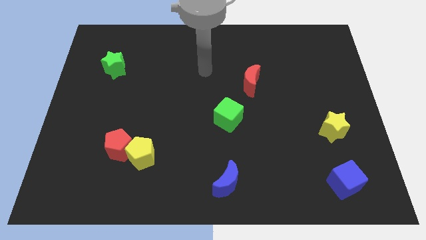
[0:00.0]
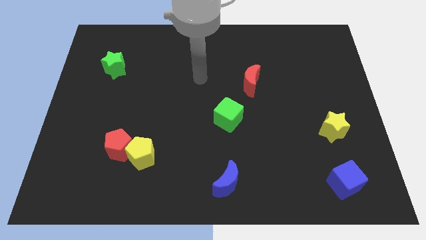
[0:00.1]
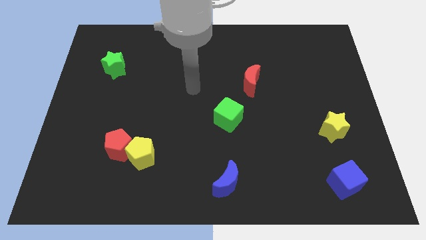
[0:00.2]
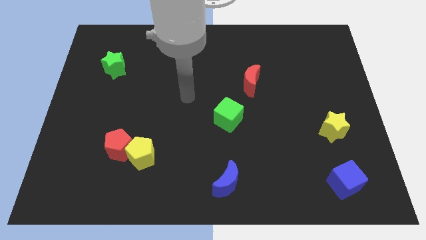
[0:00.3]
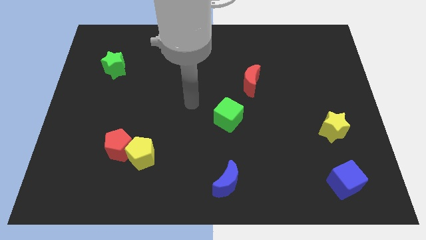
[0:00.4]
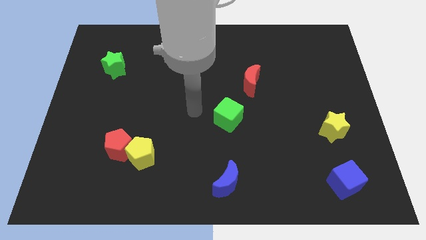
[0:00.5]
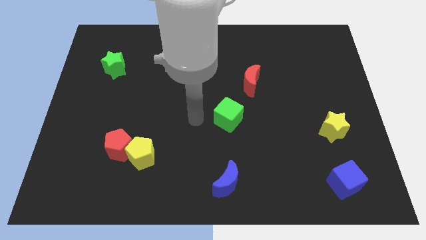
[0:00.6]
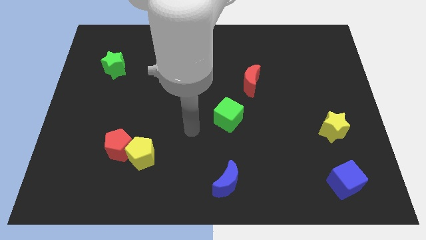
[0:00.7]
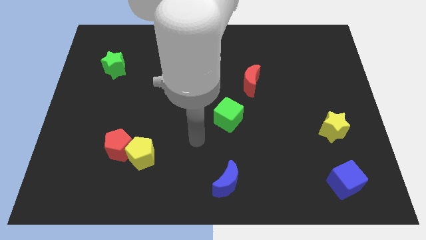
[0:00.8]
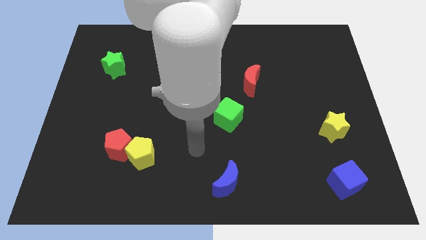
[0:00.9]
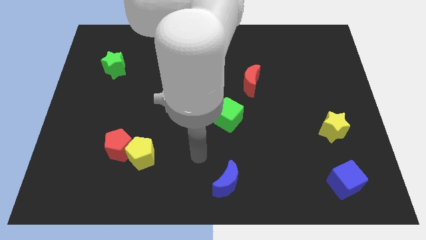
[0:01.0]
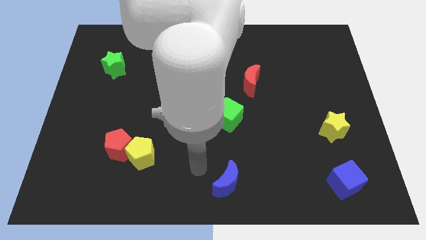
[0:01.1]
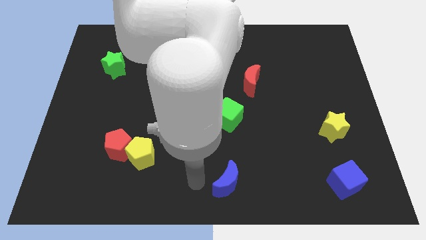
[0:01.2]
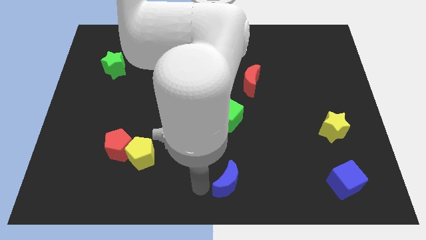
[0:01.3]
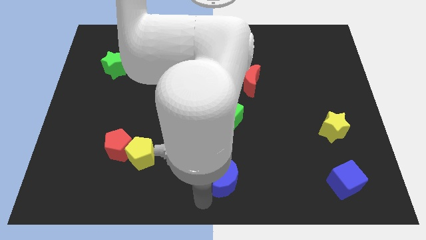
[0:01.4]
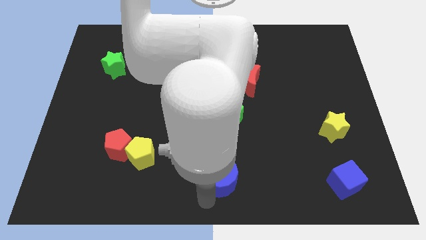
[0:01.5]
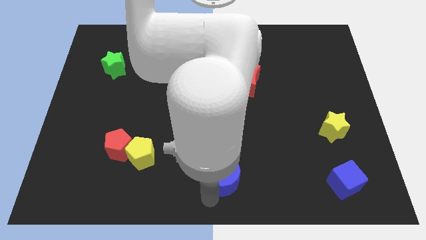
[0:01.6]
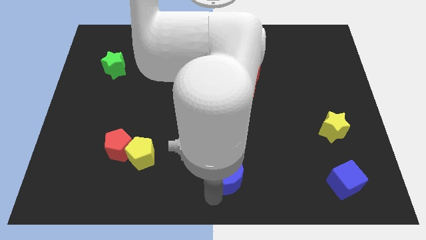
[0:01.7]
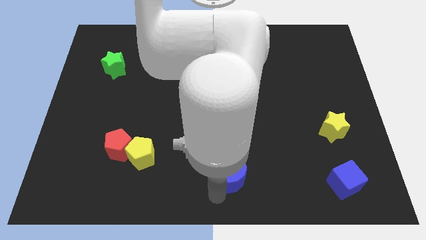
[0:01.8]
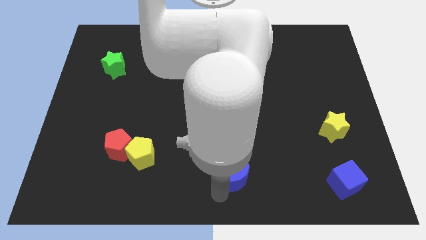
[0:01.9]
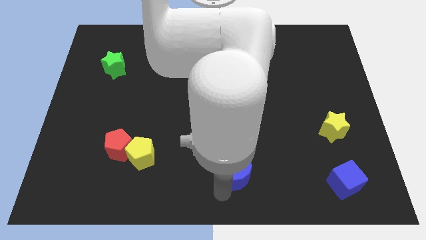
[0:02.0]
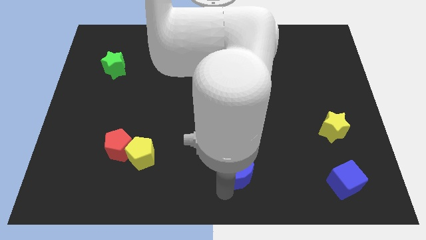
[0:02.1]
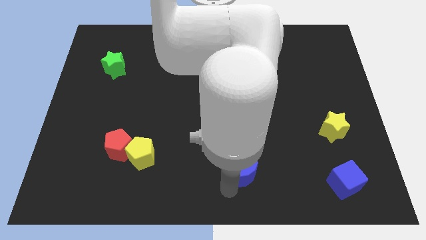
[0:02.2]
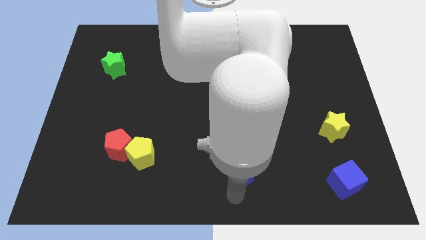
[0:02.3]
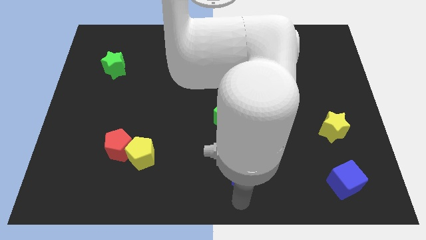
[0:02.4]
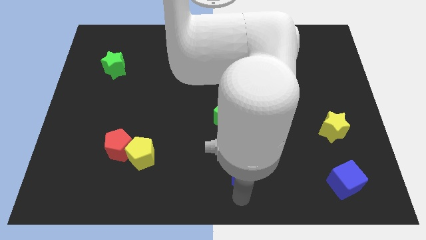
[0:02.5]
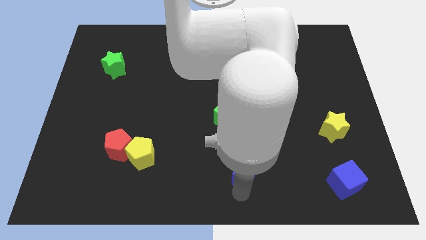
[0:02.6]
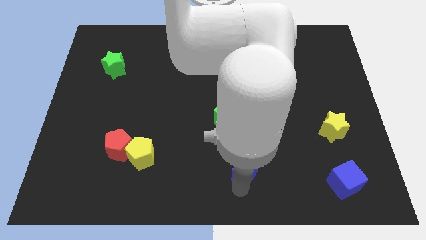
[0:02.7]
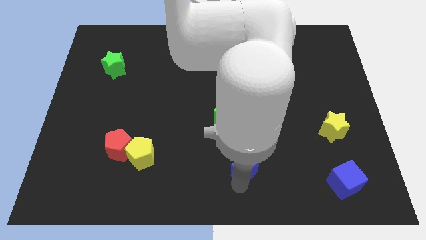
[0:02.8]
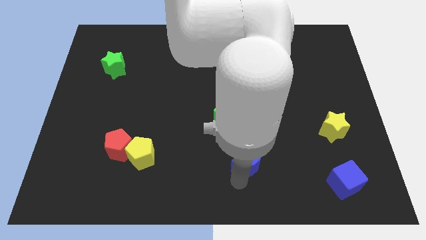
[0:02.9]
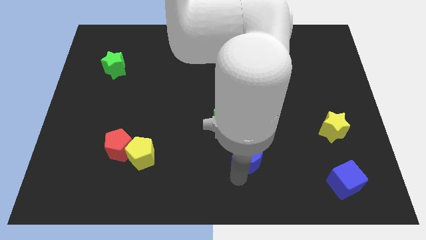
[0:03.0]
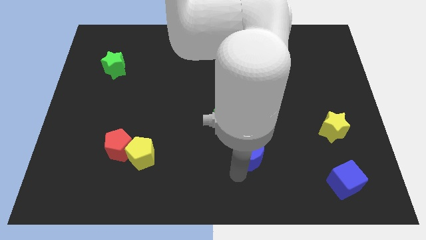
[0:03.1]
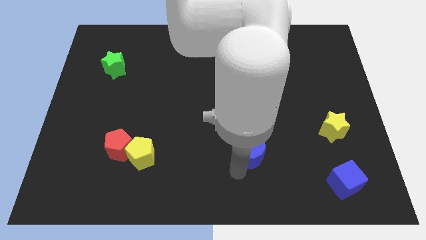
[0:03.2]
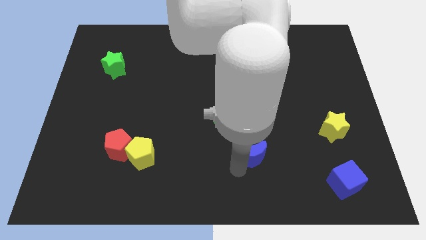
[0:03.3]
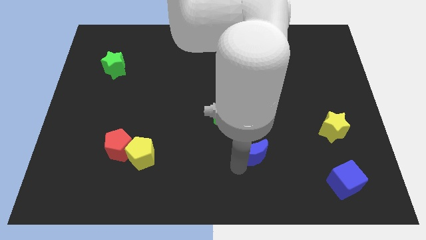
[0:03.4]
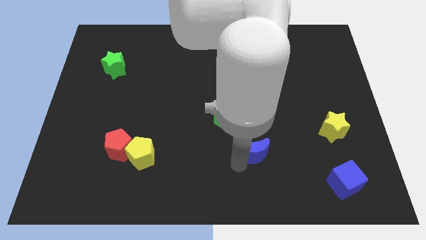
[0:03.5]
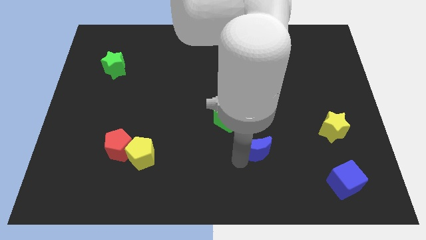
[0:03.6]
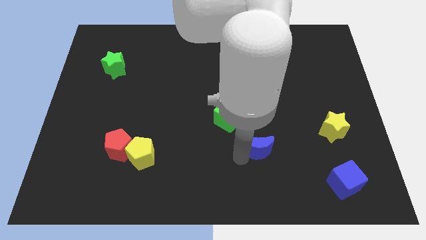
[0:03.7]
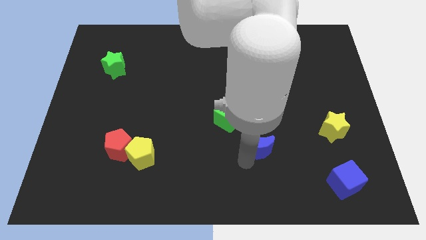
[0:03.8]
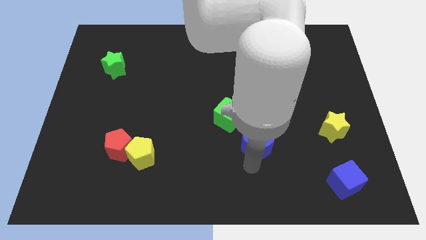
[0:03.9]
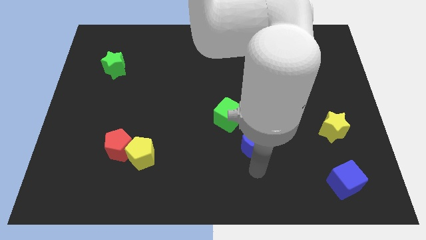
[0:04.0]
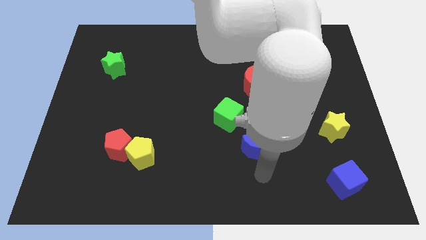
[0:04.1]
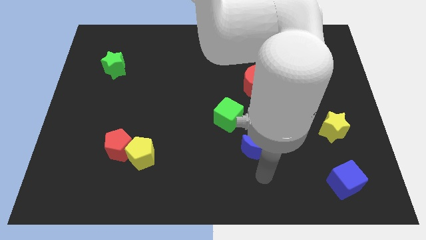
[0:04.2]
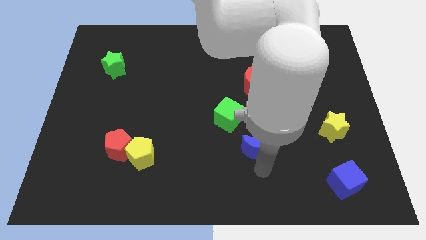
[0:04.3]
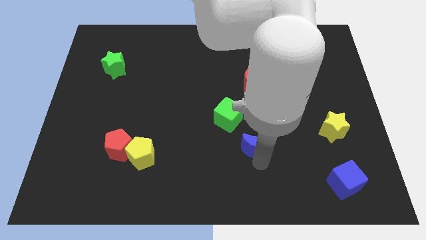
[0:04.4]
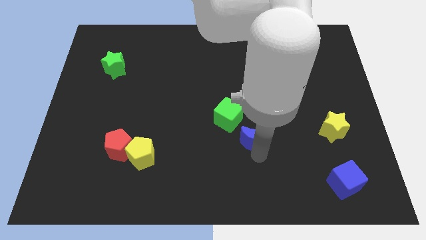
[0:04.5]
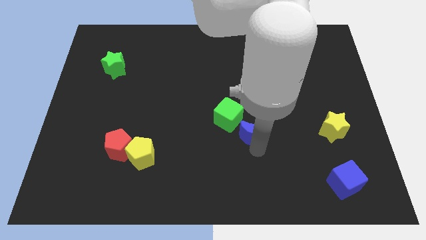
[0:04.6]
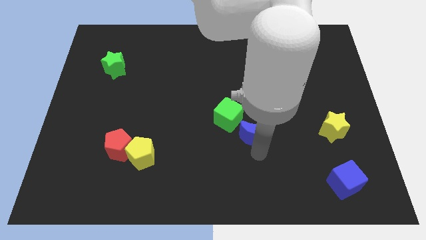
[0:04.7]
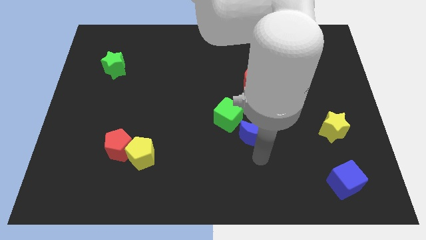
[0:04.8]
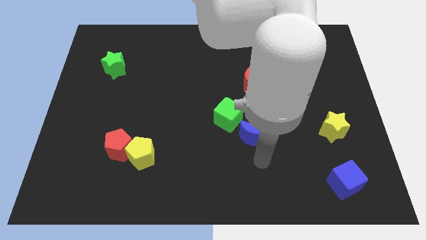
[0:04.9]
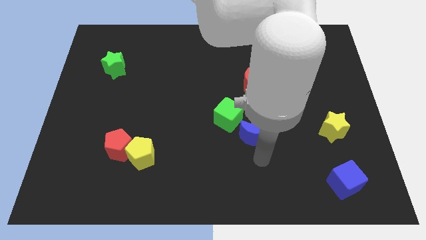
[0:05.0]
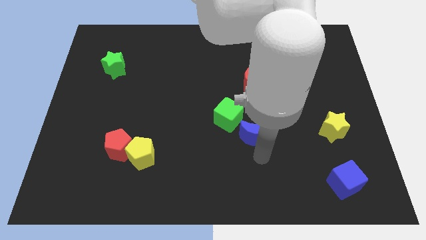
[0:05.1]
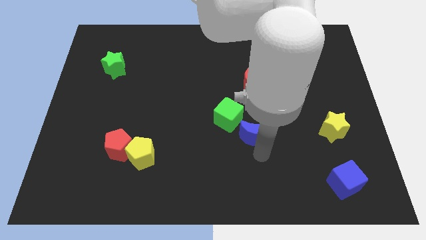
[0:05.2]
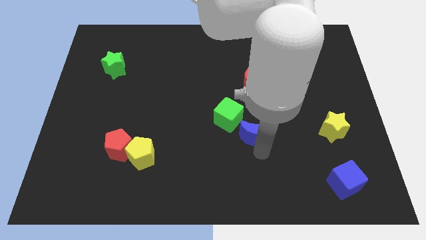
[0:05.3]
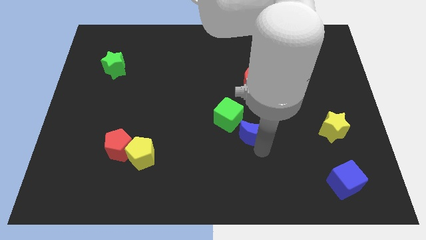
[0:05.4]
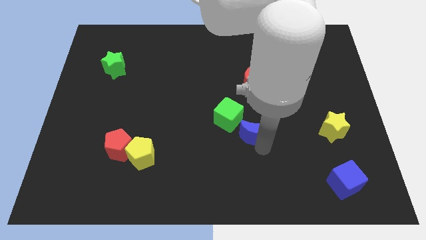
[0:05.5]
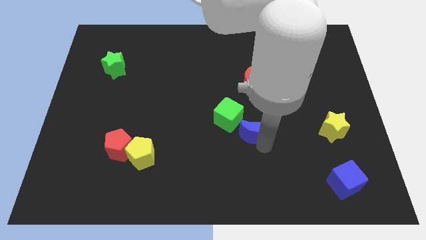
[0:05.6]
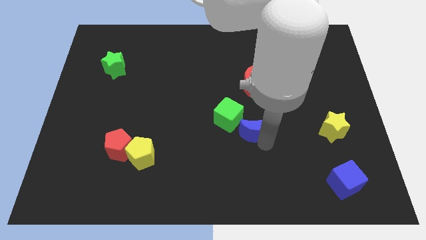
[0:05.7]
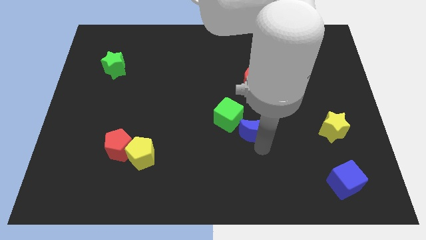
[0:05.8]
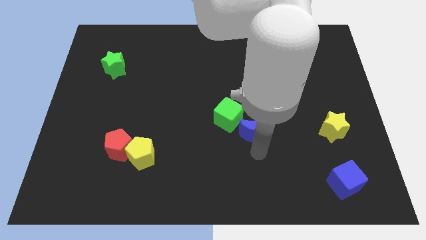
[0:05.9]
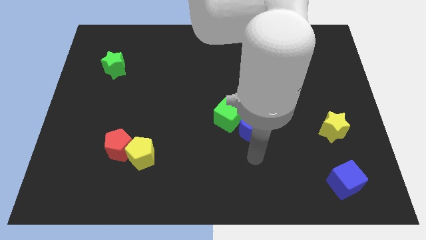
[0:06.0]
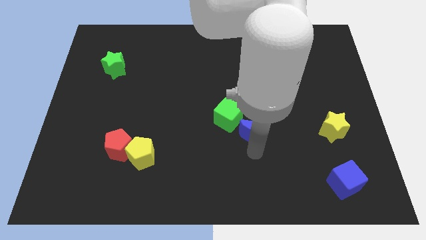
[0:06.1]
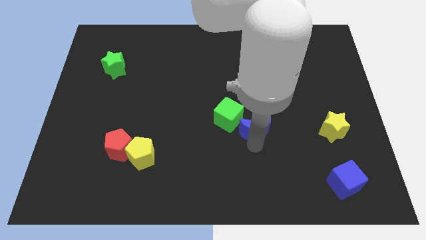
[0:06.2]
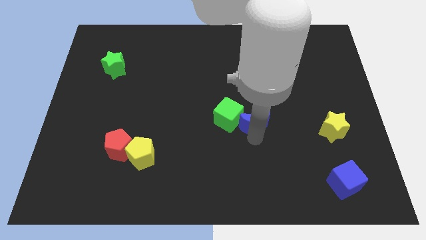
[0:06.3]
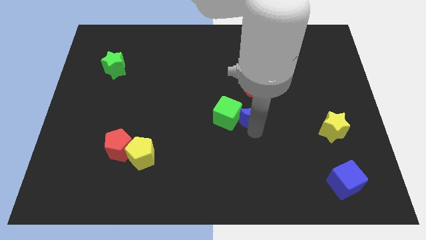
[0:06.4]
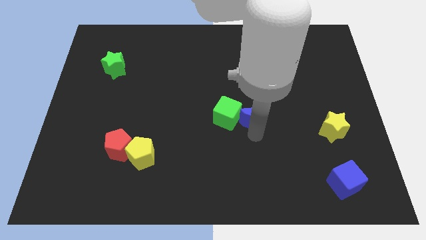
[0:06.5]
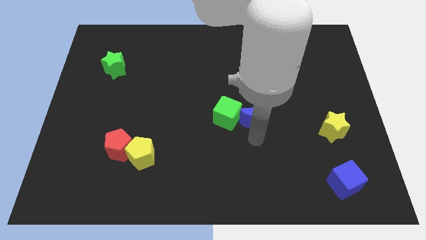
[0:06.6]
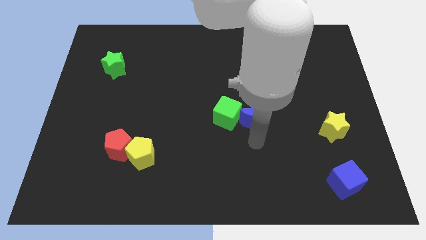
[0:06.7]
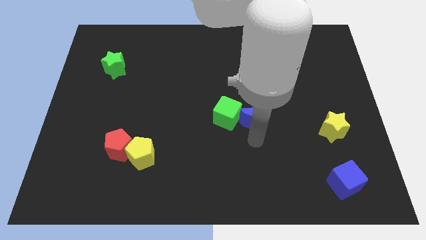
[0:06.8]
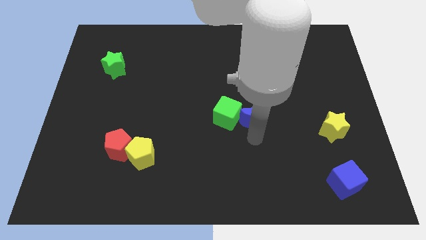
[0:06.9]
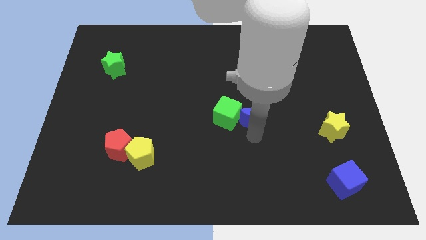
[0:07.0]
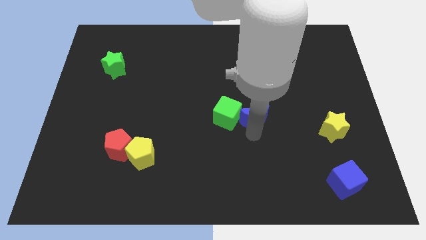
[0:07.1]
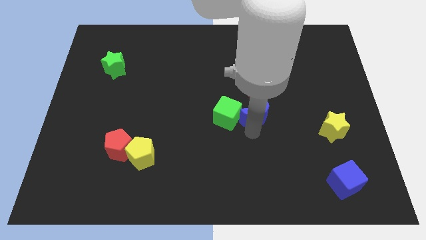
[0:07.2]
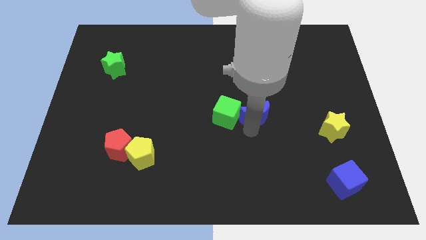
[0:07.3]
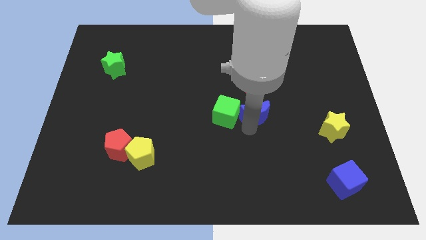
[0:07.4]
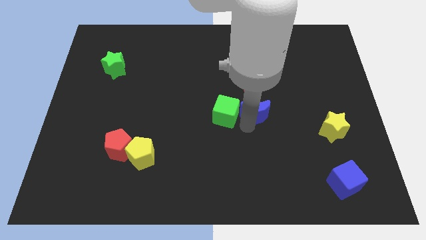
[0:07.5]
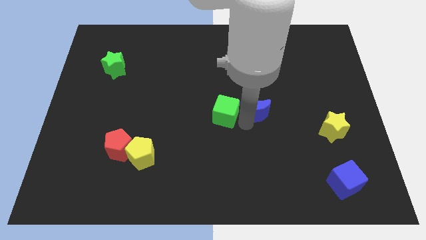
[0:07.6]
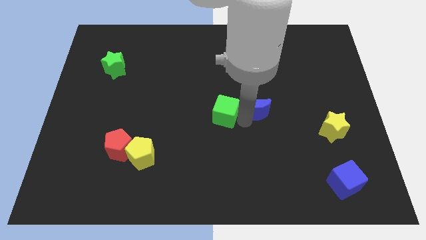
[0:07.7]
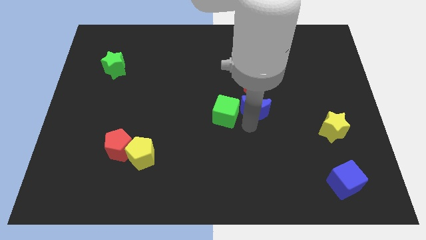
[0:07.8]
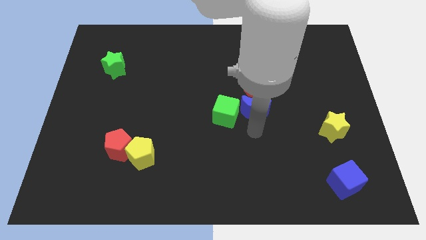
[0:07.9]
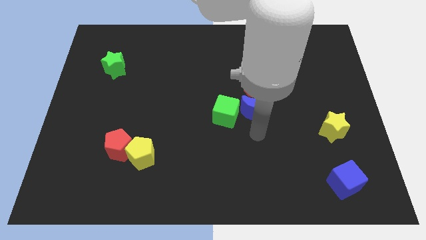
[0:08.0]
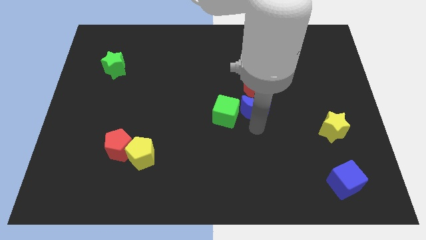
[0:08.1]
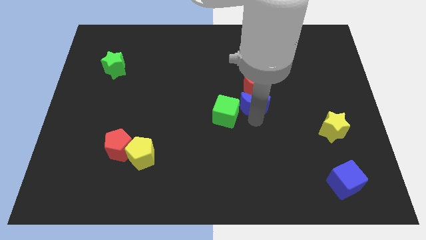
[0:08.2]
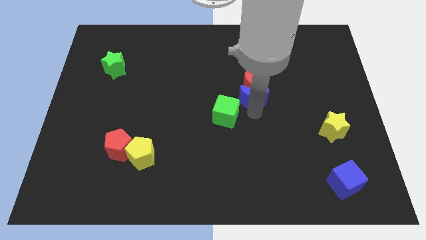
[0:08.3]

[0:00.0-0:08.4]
move the blue moon close to the red moon
